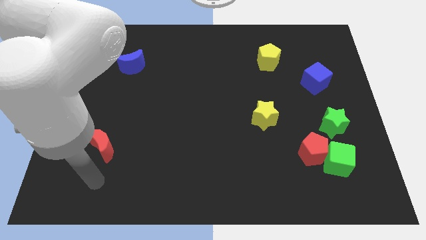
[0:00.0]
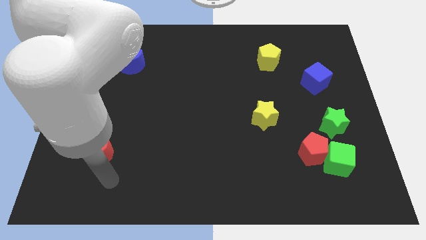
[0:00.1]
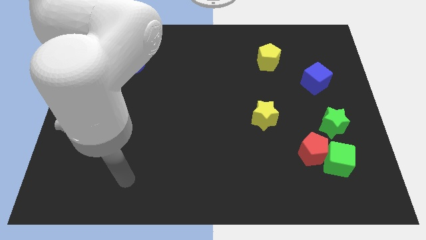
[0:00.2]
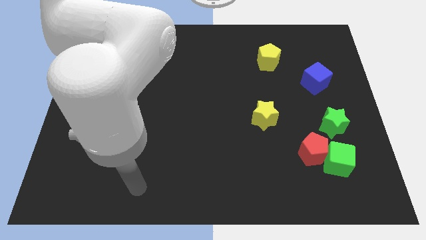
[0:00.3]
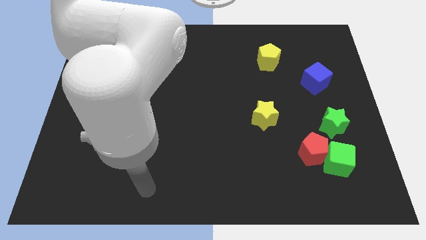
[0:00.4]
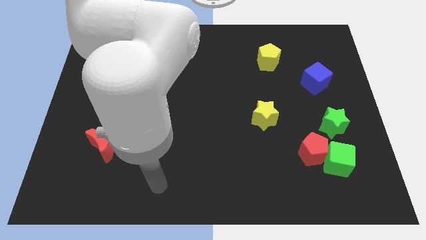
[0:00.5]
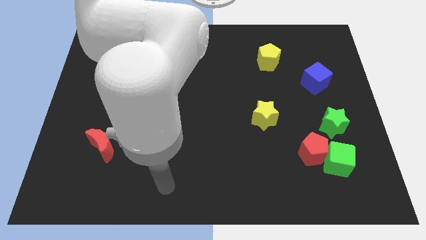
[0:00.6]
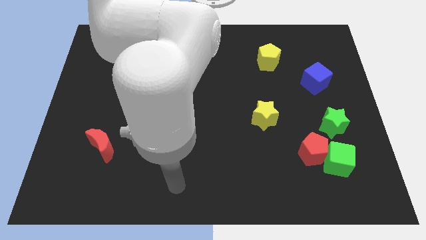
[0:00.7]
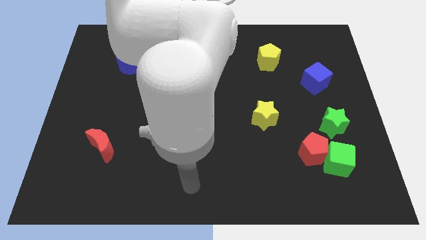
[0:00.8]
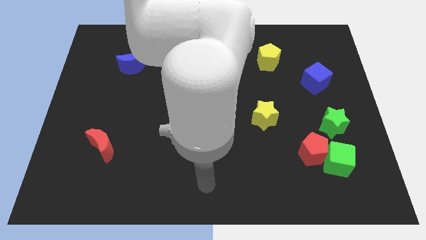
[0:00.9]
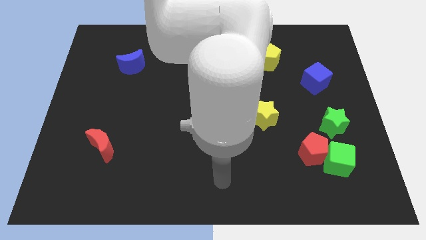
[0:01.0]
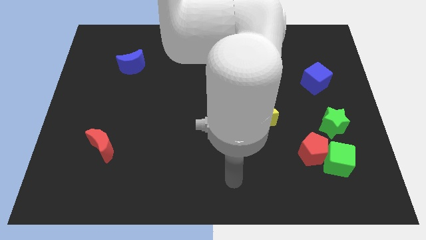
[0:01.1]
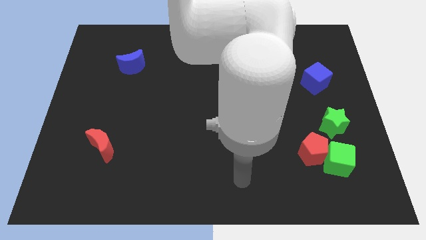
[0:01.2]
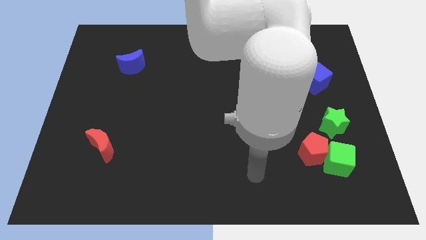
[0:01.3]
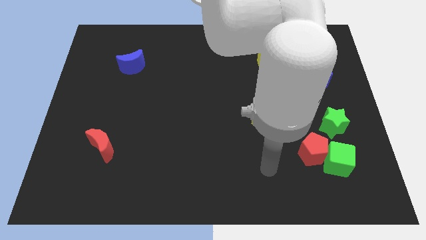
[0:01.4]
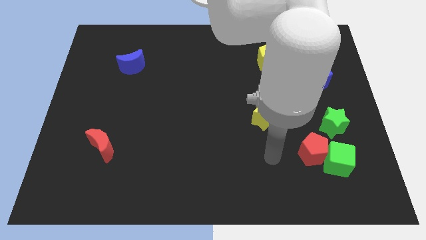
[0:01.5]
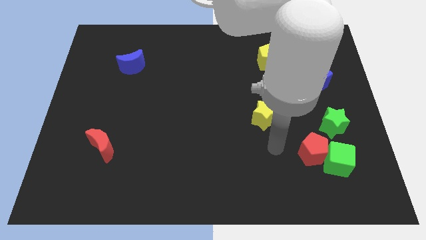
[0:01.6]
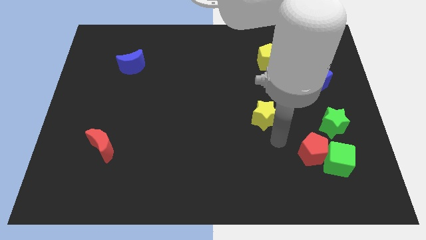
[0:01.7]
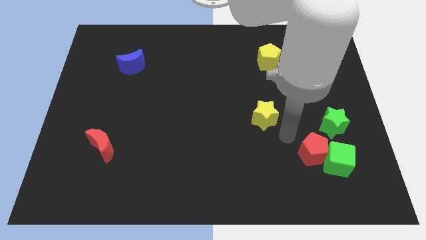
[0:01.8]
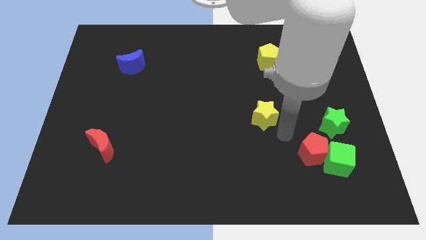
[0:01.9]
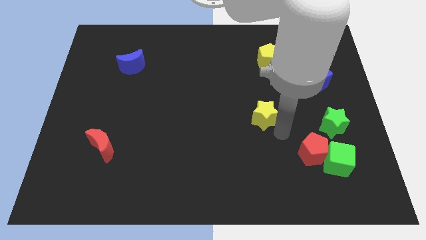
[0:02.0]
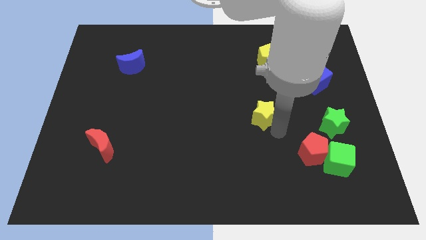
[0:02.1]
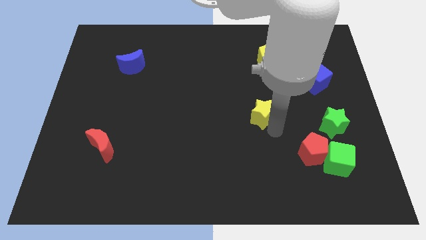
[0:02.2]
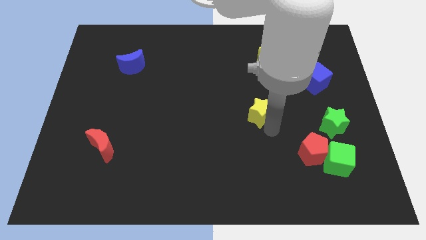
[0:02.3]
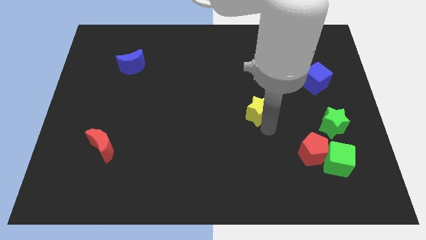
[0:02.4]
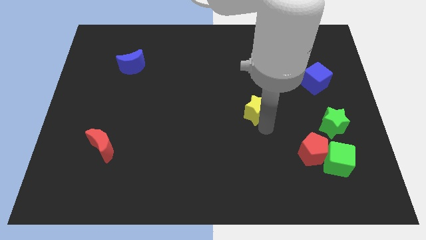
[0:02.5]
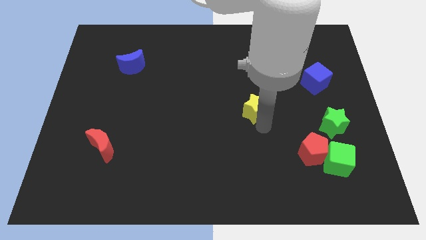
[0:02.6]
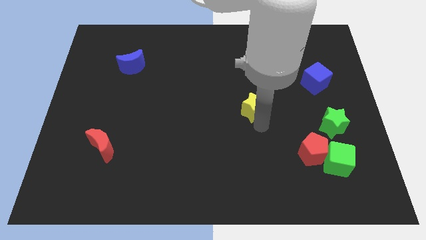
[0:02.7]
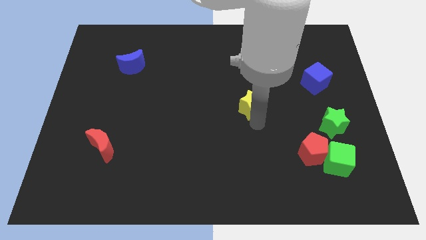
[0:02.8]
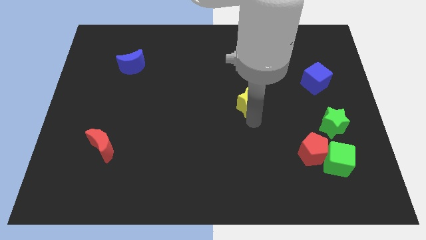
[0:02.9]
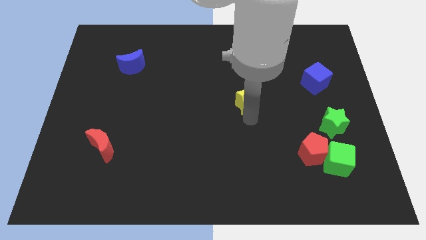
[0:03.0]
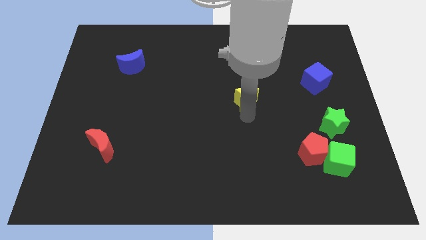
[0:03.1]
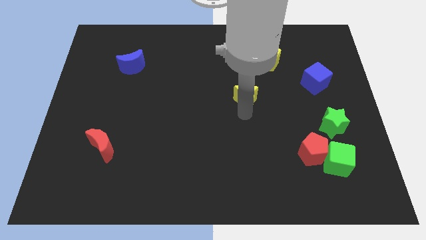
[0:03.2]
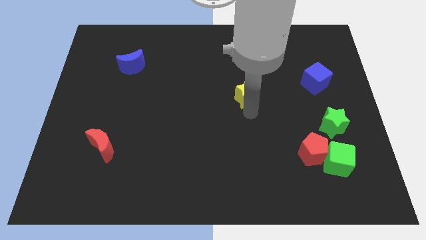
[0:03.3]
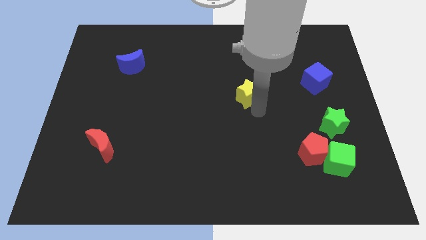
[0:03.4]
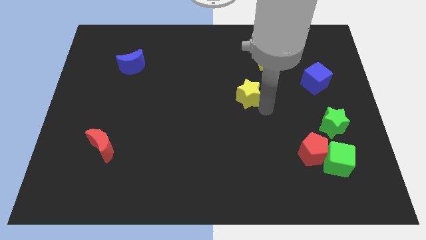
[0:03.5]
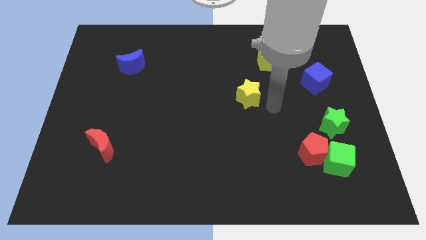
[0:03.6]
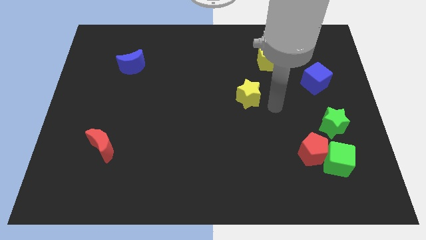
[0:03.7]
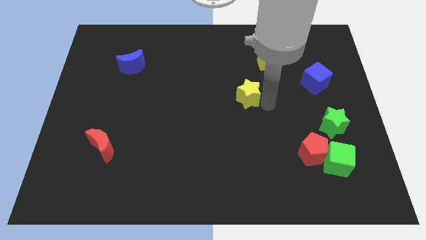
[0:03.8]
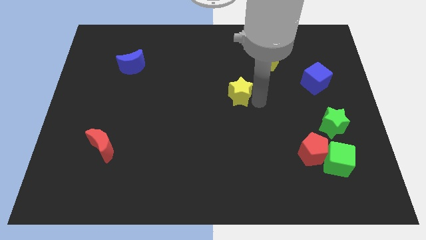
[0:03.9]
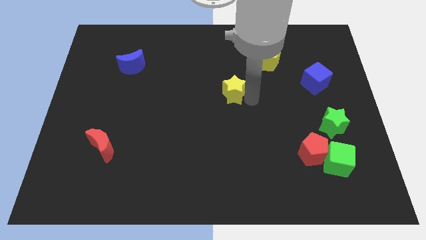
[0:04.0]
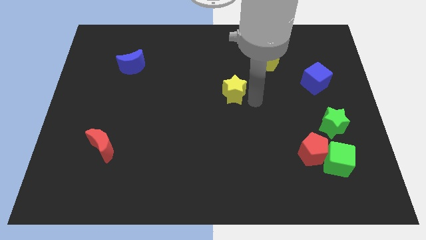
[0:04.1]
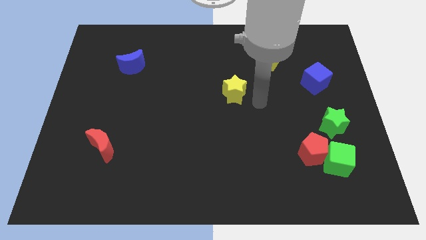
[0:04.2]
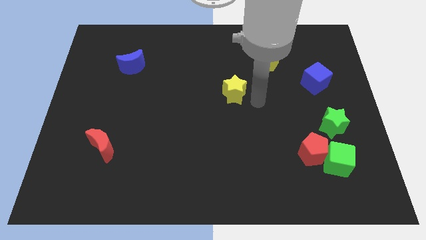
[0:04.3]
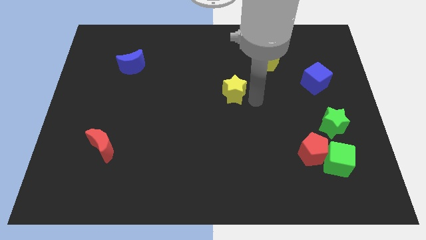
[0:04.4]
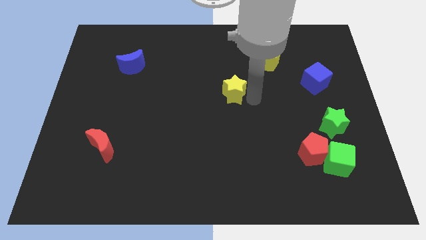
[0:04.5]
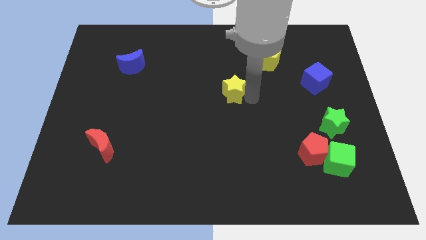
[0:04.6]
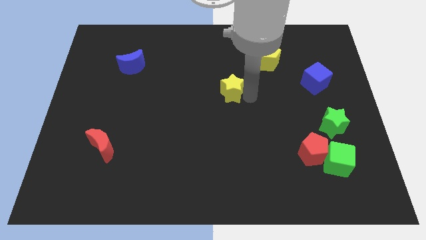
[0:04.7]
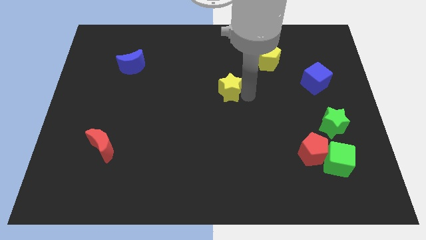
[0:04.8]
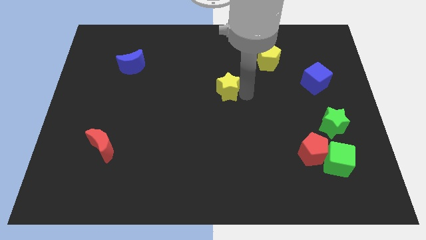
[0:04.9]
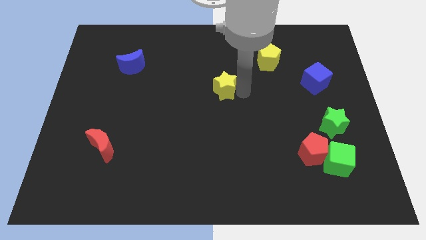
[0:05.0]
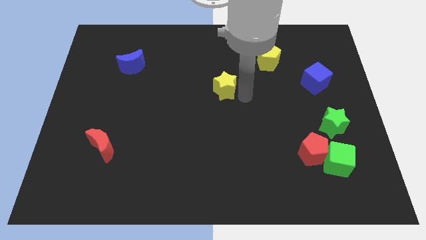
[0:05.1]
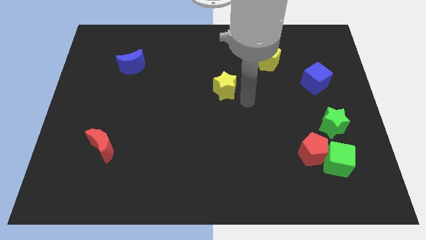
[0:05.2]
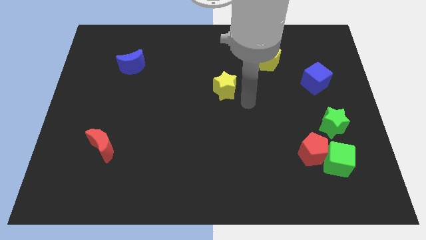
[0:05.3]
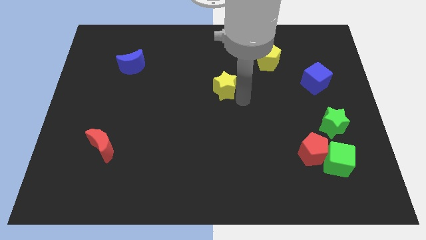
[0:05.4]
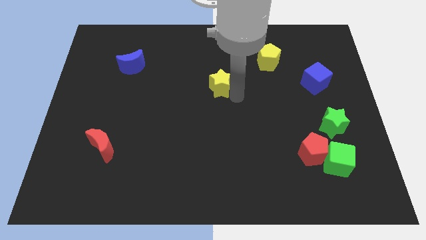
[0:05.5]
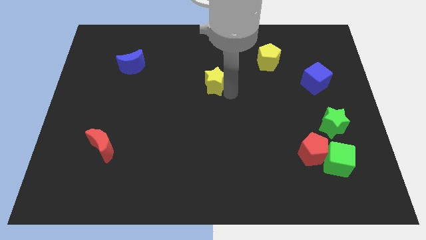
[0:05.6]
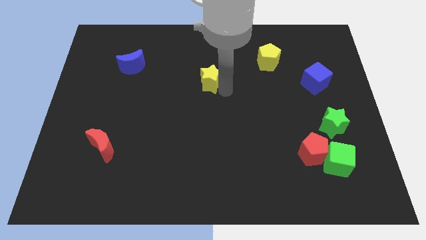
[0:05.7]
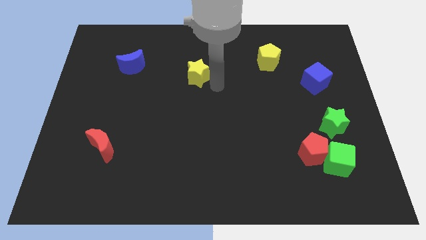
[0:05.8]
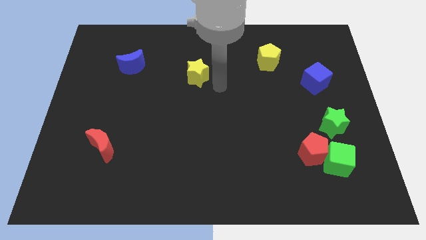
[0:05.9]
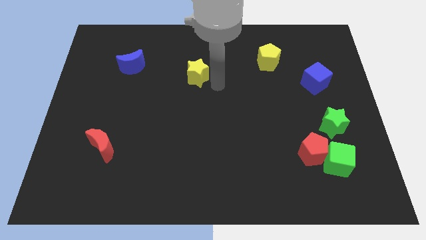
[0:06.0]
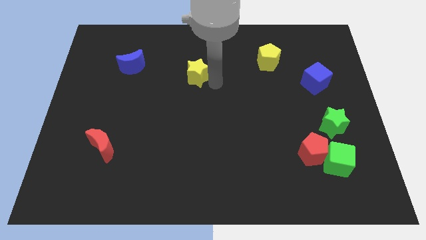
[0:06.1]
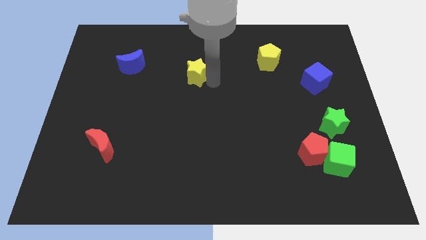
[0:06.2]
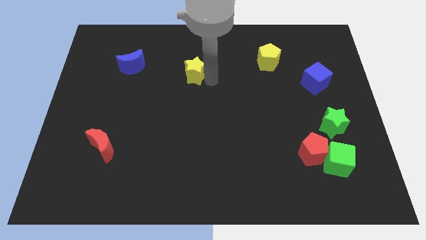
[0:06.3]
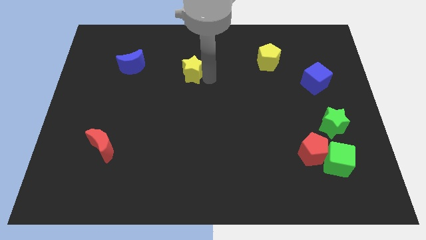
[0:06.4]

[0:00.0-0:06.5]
move the yellow star right of the blue moon

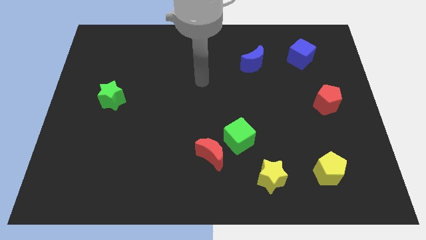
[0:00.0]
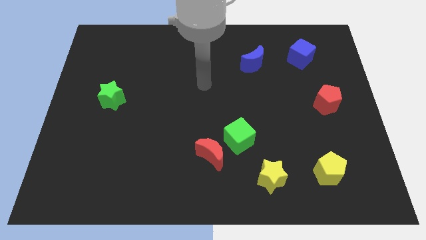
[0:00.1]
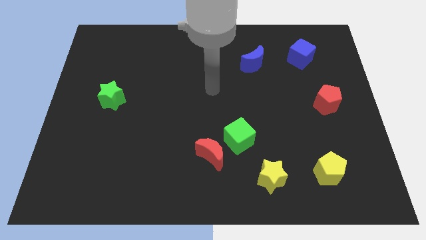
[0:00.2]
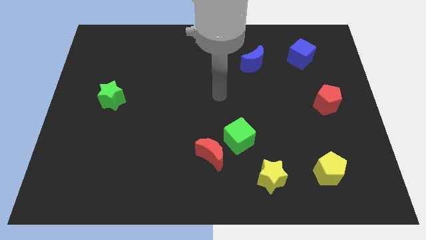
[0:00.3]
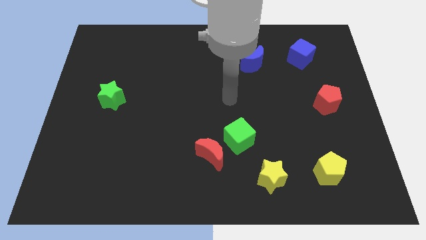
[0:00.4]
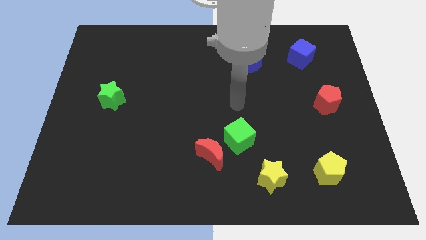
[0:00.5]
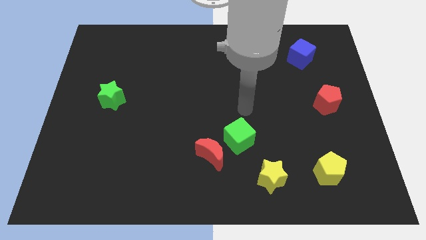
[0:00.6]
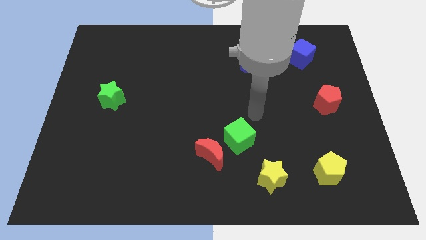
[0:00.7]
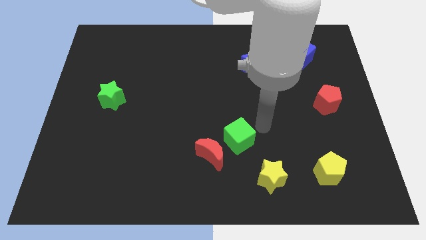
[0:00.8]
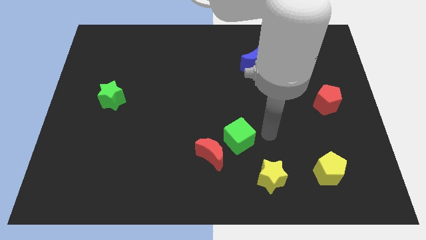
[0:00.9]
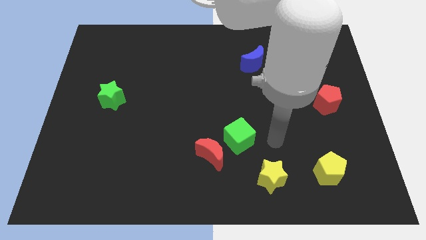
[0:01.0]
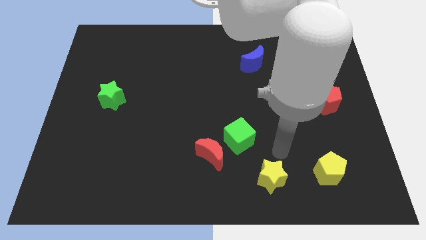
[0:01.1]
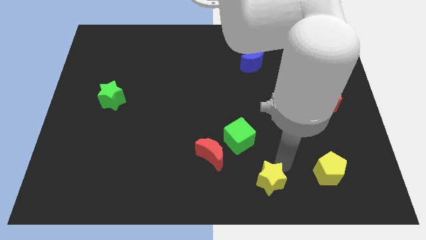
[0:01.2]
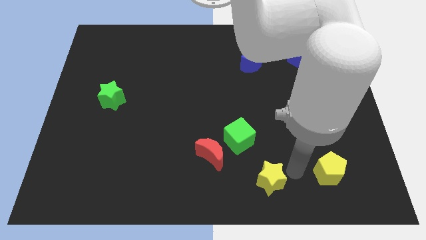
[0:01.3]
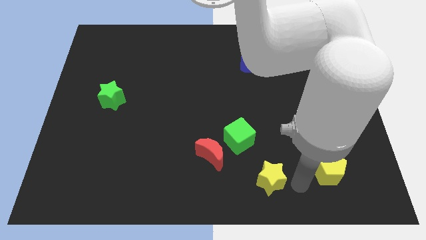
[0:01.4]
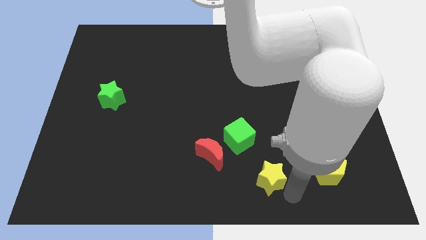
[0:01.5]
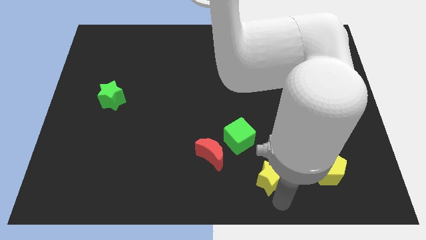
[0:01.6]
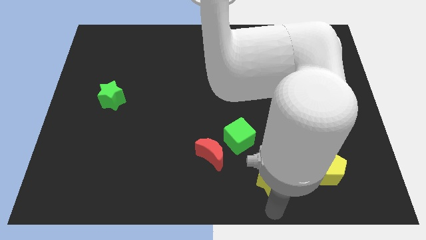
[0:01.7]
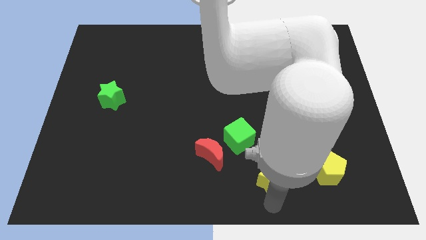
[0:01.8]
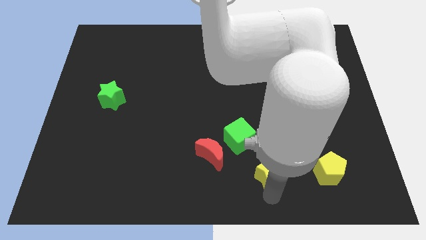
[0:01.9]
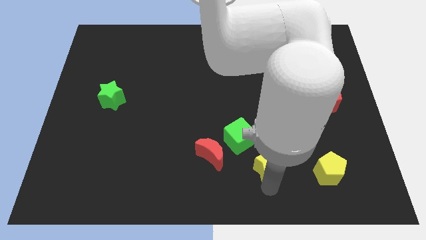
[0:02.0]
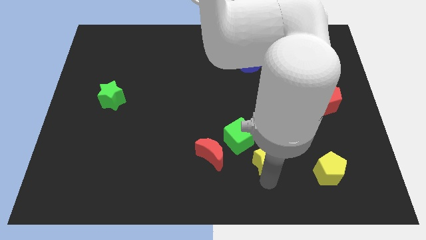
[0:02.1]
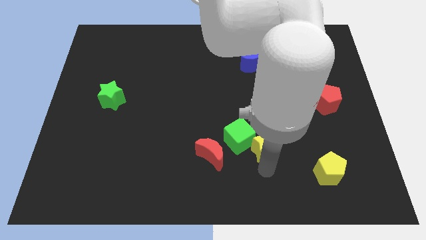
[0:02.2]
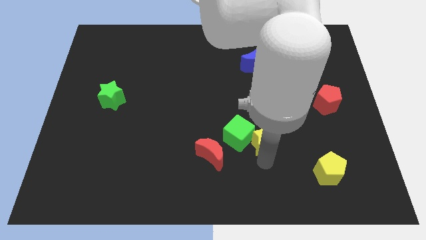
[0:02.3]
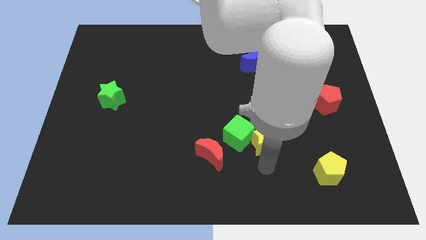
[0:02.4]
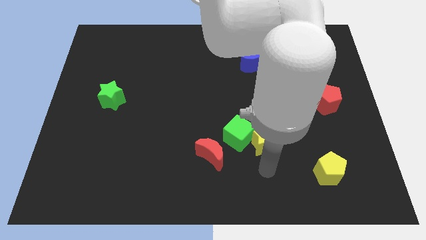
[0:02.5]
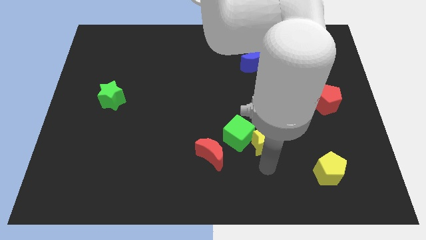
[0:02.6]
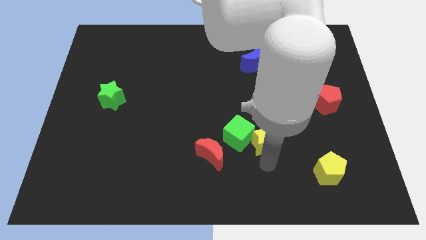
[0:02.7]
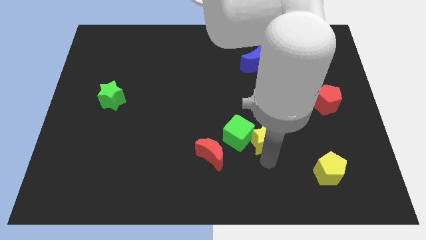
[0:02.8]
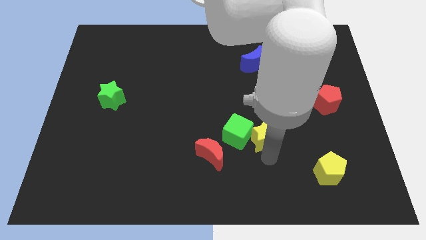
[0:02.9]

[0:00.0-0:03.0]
move the yellow star diagonally up and to the right of the green cube
